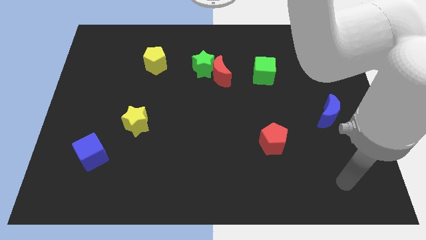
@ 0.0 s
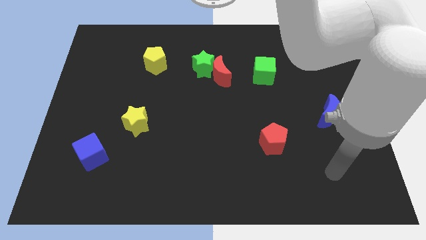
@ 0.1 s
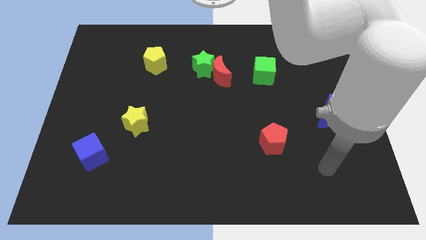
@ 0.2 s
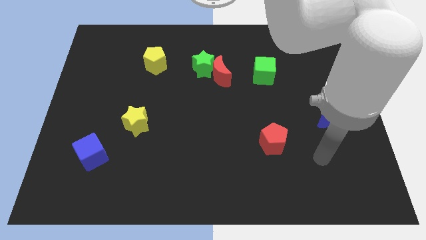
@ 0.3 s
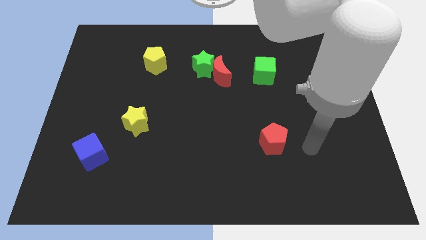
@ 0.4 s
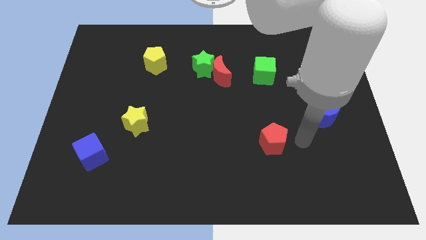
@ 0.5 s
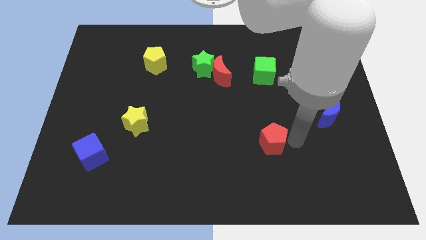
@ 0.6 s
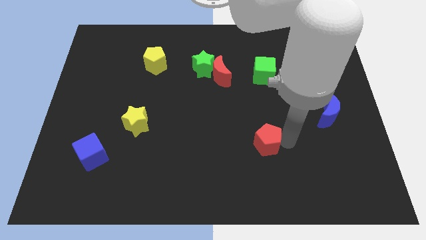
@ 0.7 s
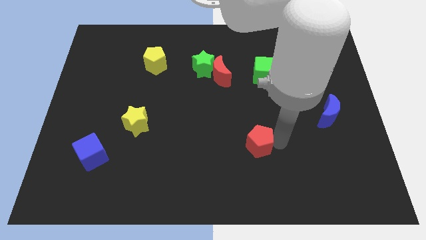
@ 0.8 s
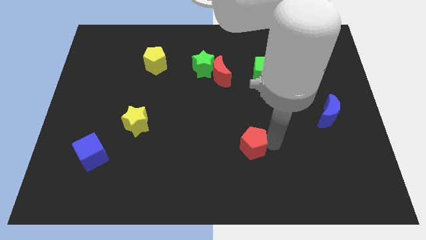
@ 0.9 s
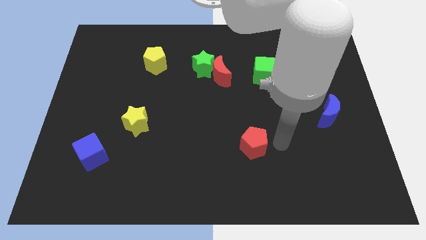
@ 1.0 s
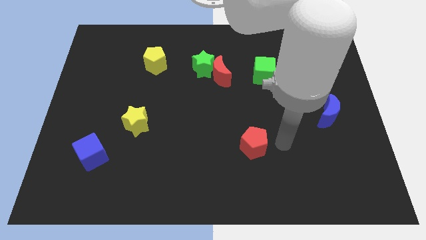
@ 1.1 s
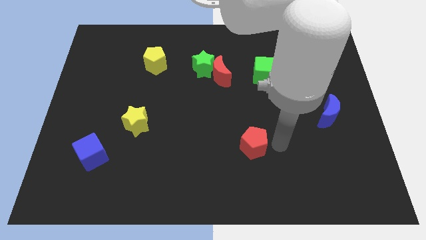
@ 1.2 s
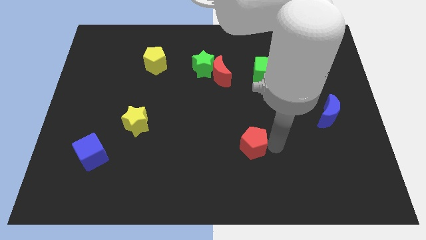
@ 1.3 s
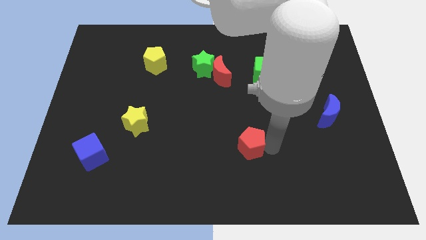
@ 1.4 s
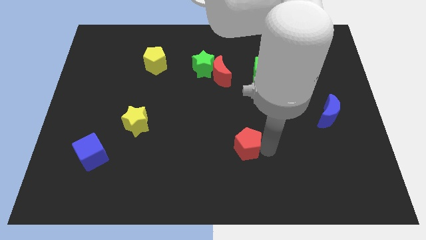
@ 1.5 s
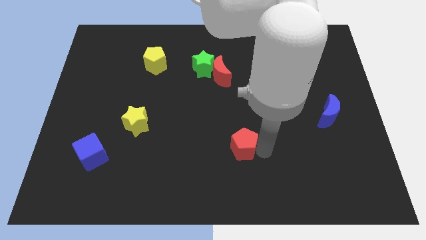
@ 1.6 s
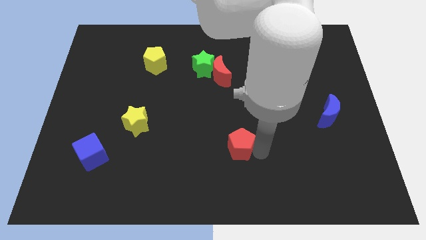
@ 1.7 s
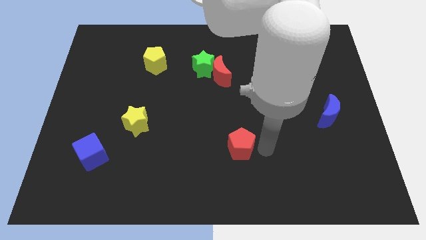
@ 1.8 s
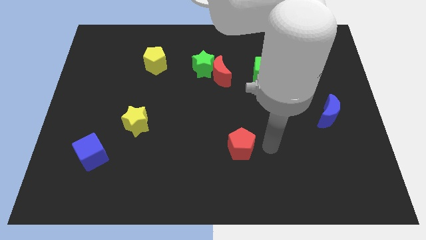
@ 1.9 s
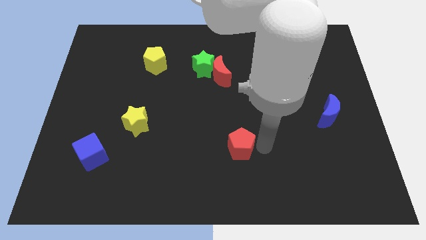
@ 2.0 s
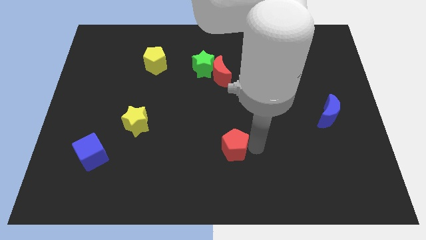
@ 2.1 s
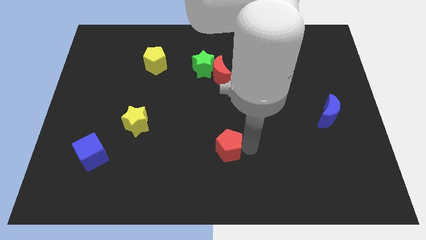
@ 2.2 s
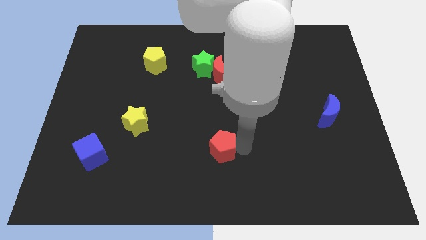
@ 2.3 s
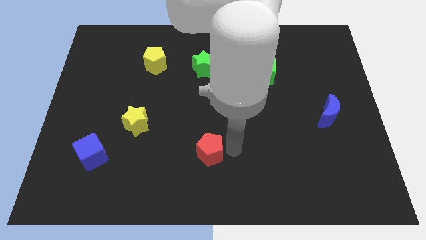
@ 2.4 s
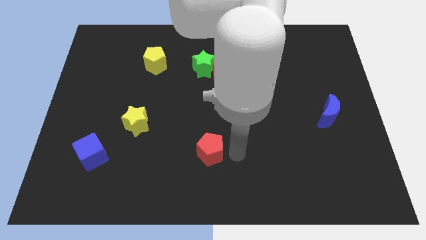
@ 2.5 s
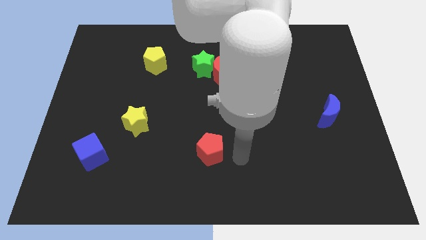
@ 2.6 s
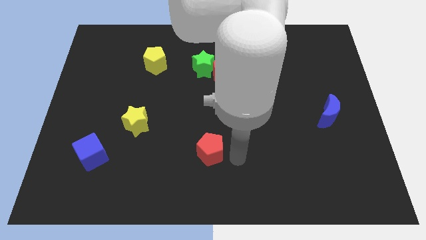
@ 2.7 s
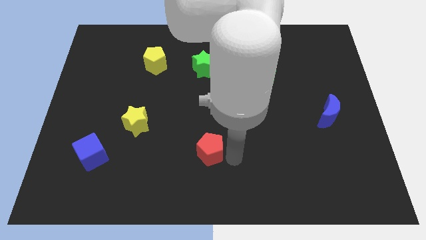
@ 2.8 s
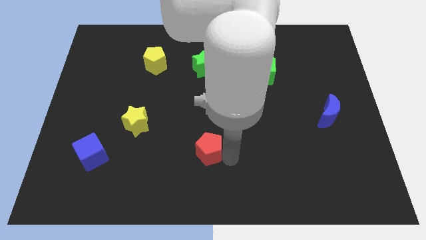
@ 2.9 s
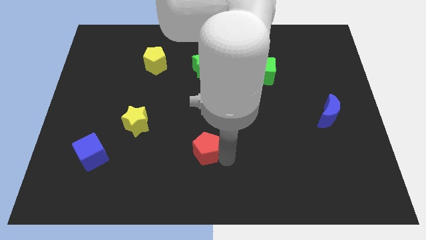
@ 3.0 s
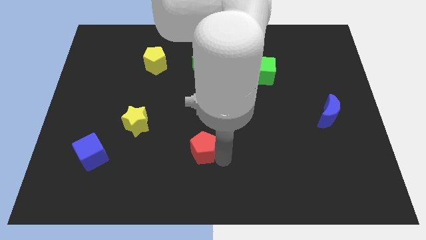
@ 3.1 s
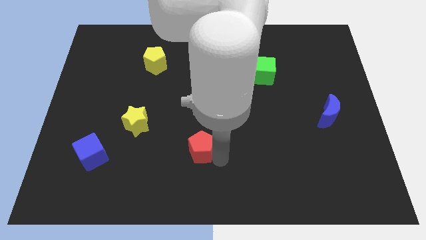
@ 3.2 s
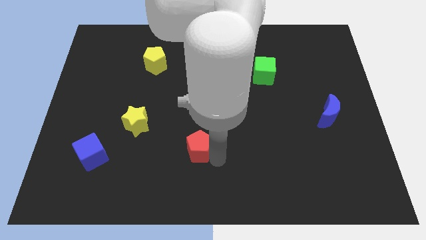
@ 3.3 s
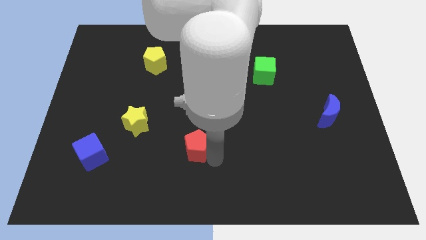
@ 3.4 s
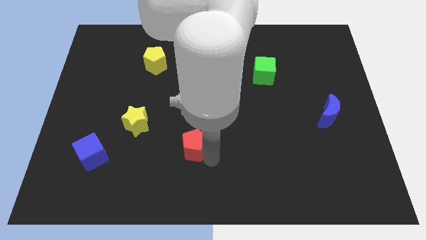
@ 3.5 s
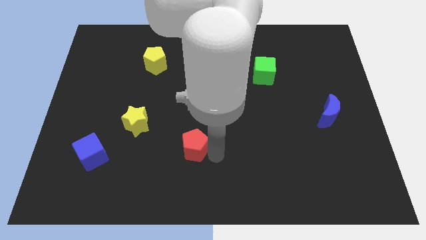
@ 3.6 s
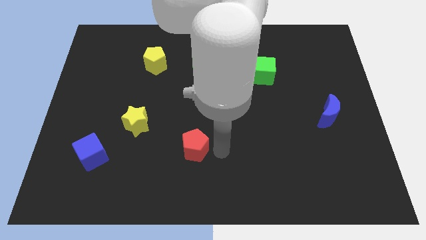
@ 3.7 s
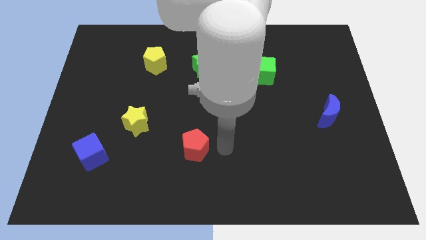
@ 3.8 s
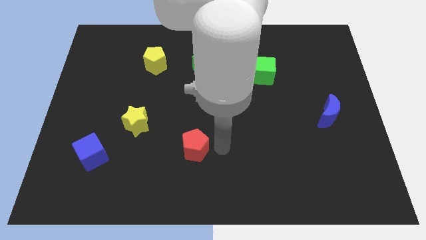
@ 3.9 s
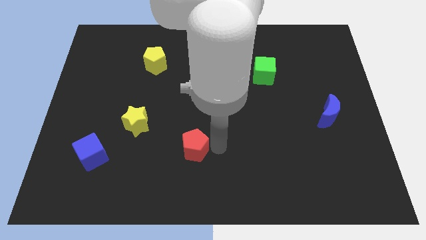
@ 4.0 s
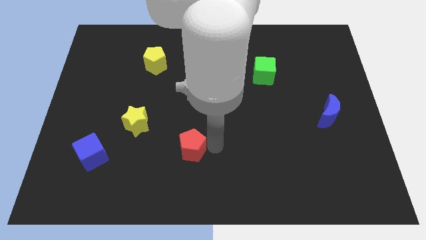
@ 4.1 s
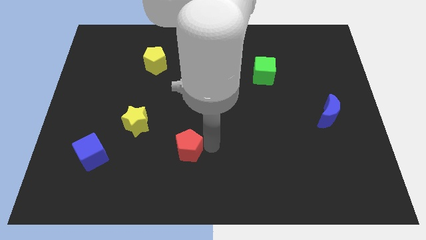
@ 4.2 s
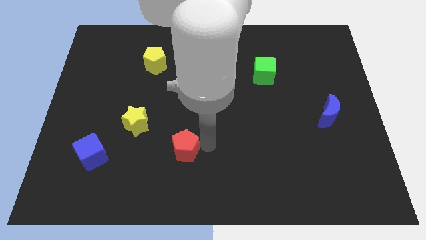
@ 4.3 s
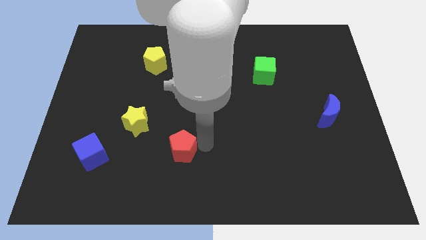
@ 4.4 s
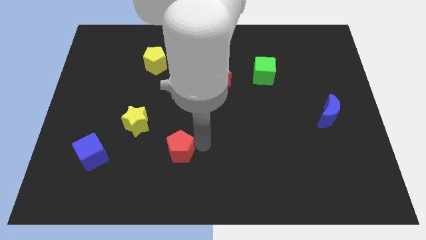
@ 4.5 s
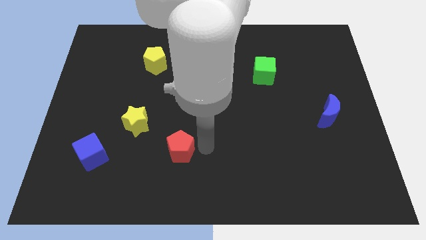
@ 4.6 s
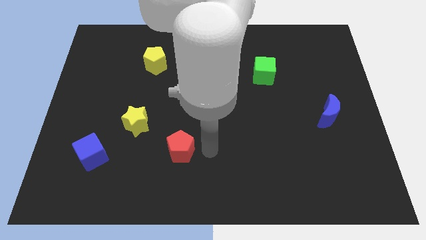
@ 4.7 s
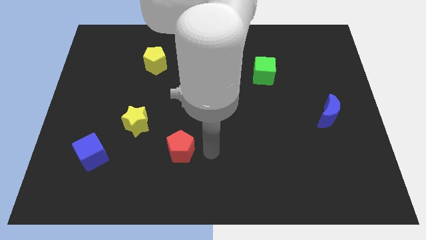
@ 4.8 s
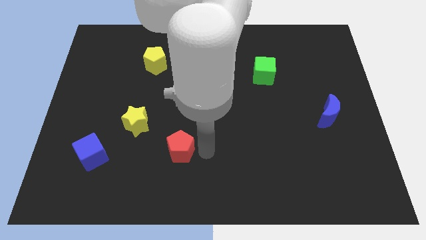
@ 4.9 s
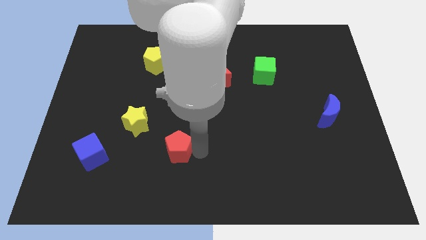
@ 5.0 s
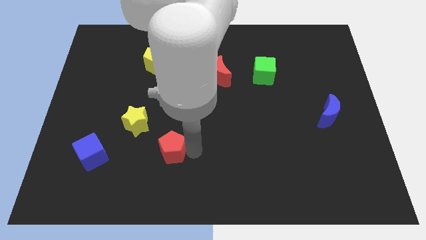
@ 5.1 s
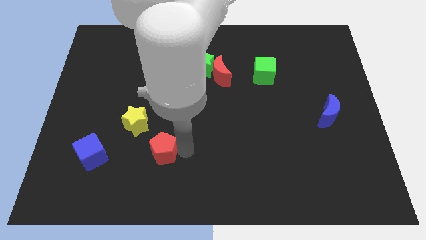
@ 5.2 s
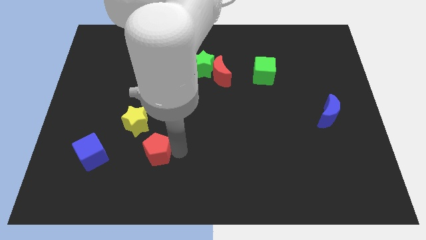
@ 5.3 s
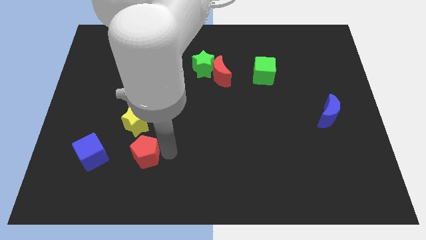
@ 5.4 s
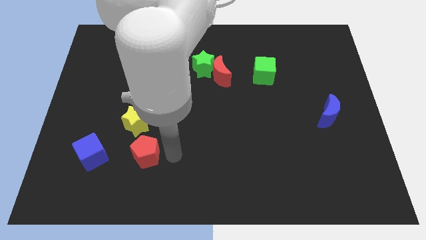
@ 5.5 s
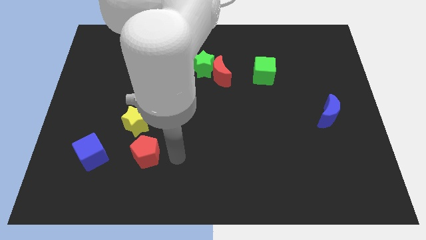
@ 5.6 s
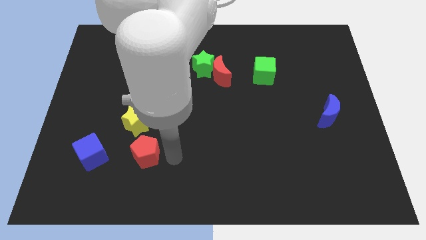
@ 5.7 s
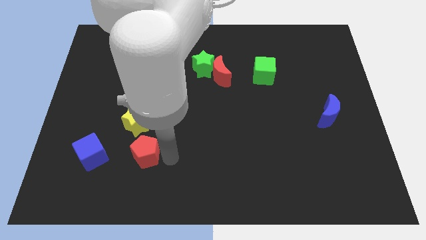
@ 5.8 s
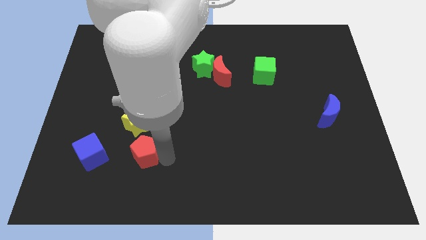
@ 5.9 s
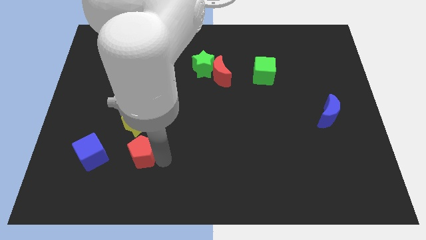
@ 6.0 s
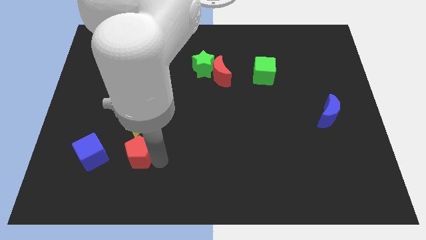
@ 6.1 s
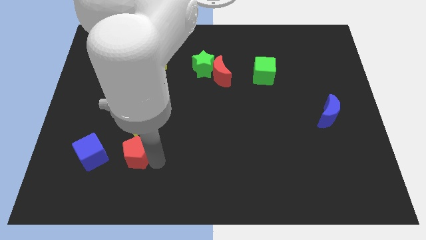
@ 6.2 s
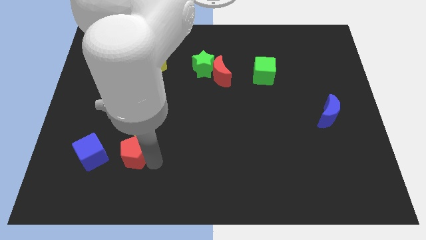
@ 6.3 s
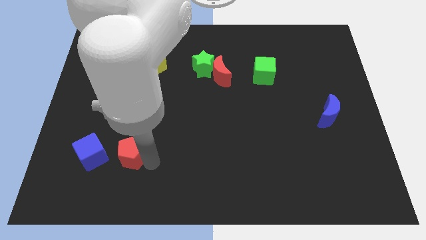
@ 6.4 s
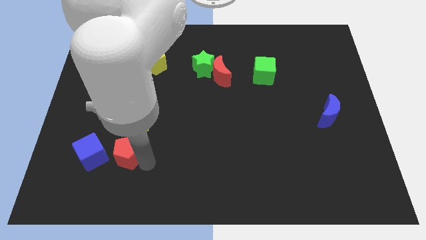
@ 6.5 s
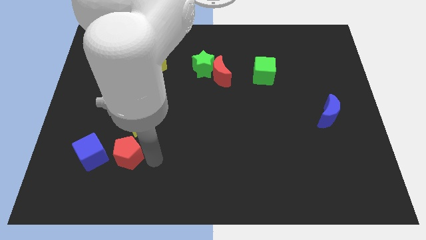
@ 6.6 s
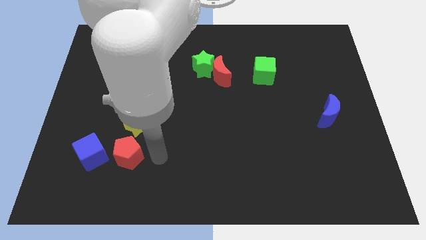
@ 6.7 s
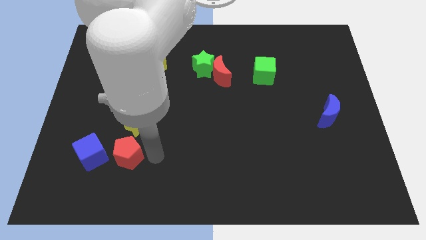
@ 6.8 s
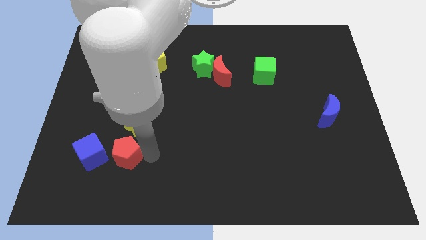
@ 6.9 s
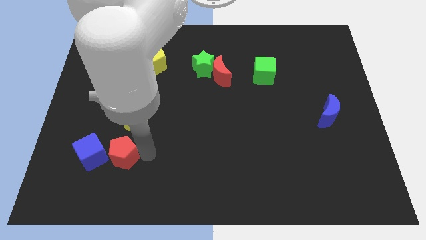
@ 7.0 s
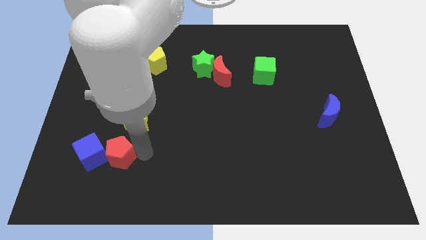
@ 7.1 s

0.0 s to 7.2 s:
push the red pentagon towards the blue cube

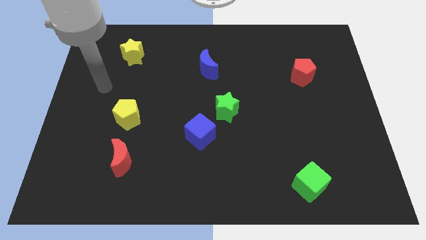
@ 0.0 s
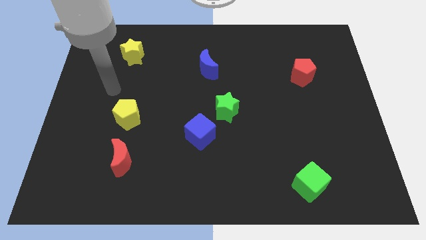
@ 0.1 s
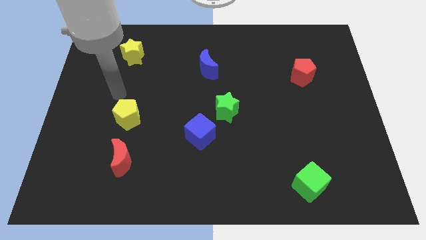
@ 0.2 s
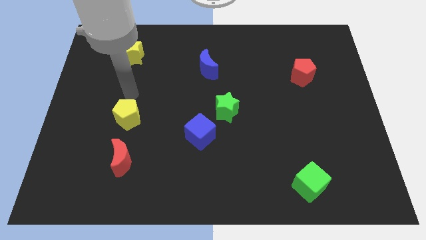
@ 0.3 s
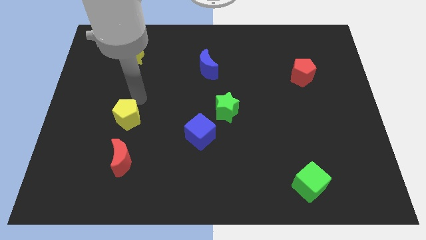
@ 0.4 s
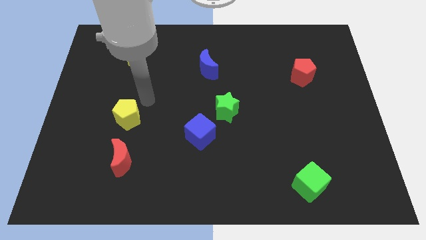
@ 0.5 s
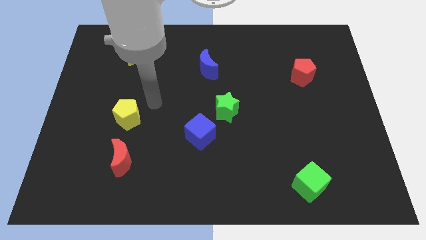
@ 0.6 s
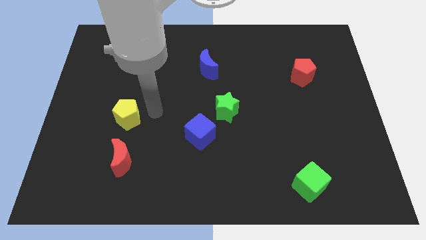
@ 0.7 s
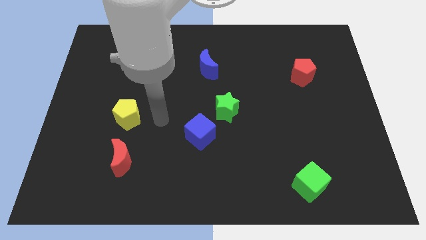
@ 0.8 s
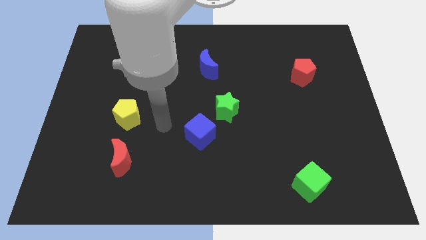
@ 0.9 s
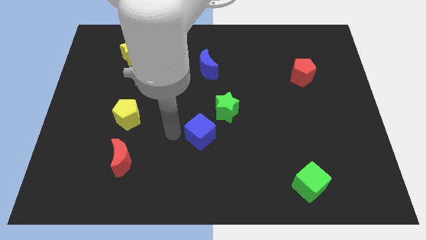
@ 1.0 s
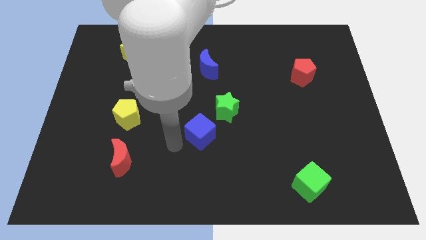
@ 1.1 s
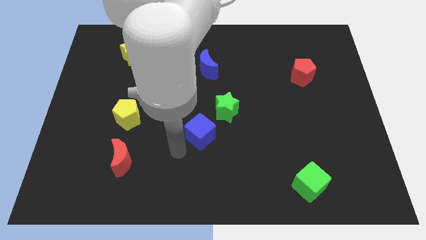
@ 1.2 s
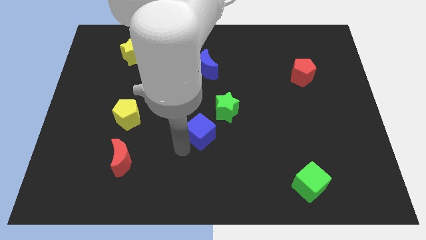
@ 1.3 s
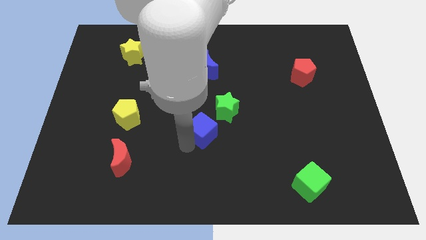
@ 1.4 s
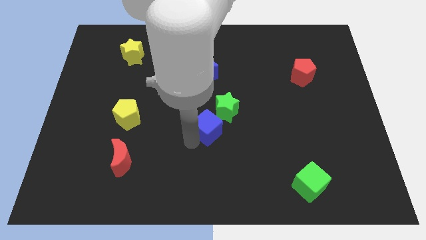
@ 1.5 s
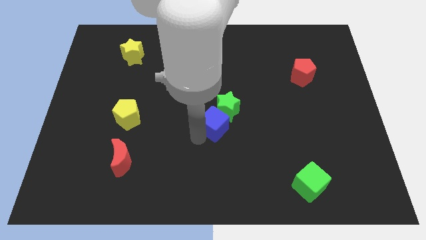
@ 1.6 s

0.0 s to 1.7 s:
move the blue cube to the green star
